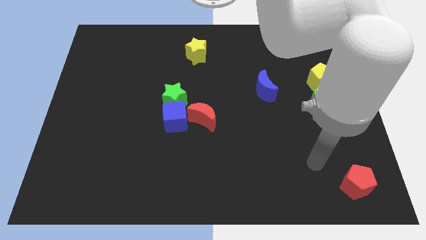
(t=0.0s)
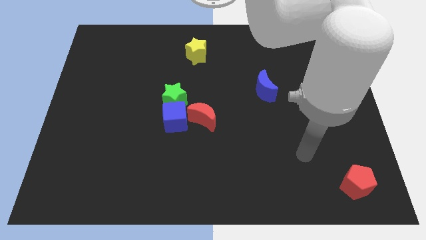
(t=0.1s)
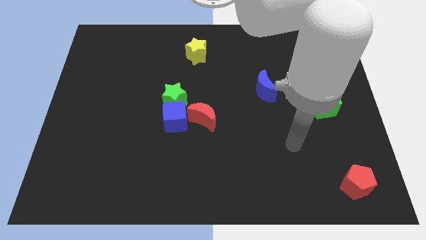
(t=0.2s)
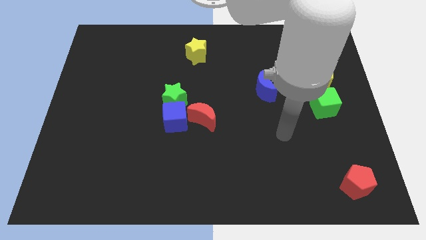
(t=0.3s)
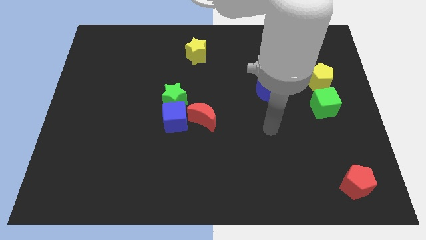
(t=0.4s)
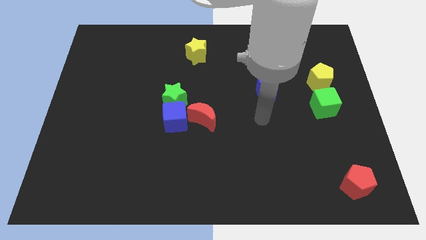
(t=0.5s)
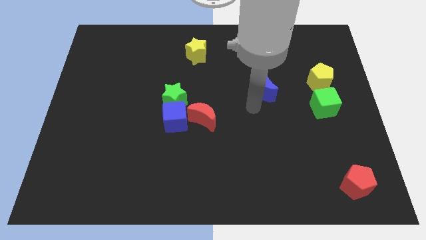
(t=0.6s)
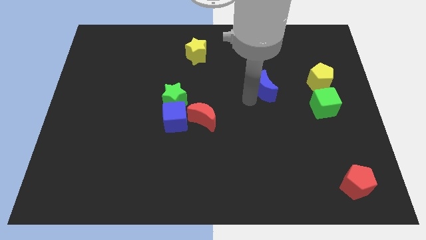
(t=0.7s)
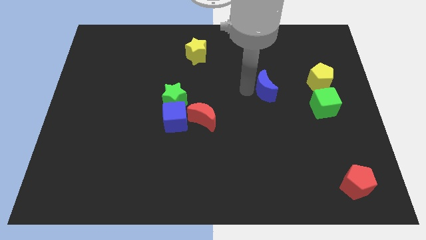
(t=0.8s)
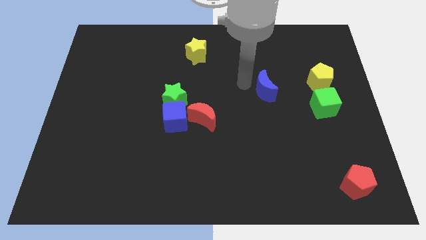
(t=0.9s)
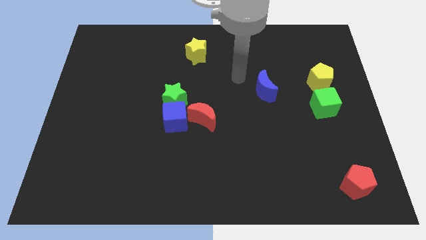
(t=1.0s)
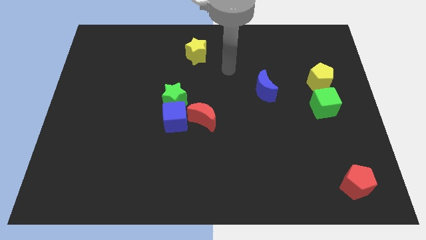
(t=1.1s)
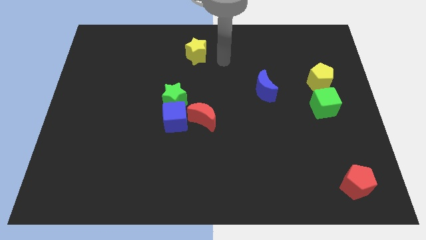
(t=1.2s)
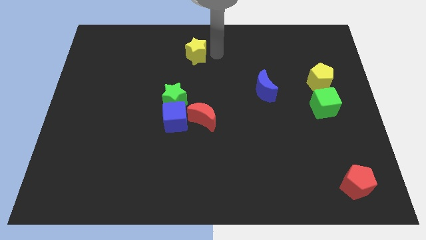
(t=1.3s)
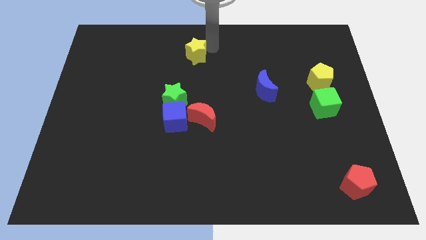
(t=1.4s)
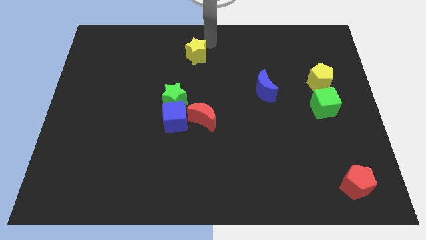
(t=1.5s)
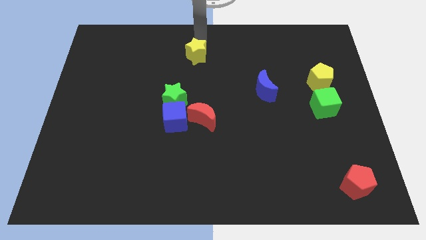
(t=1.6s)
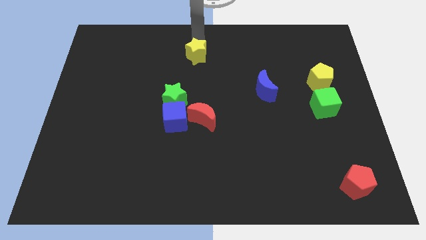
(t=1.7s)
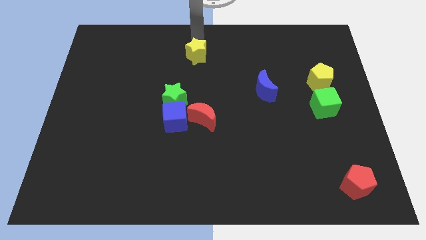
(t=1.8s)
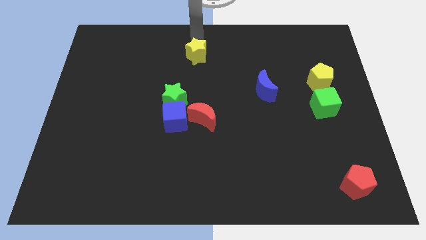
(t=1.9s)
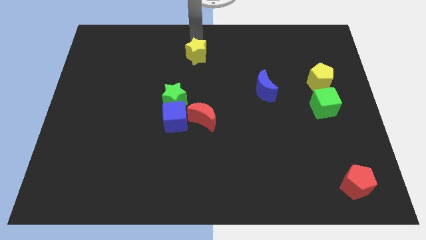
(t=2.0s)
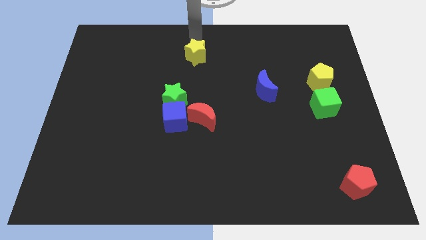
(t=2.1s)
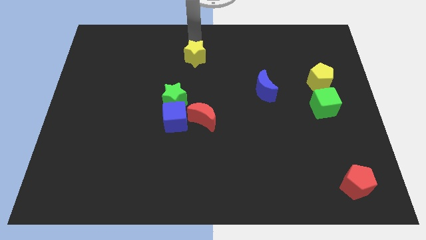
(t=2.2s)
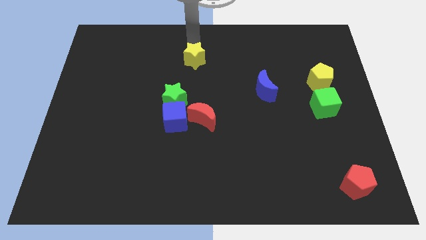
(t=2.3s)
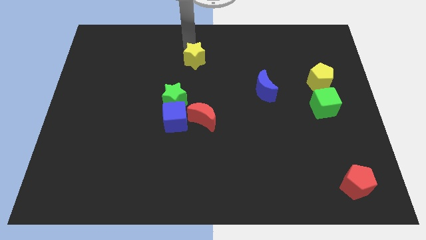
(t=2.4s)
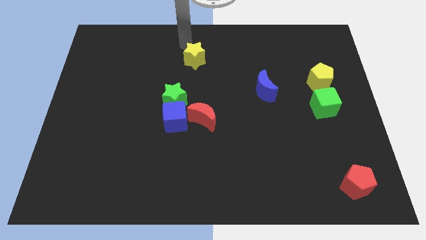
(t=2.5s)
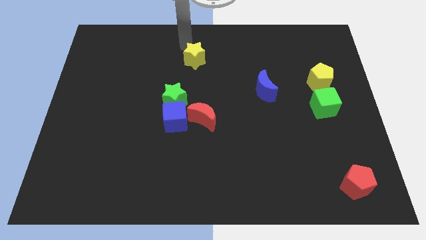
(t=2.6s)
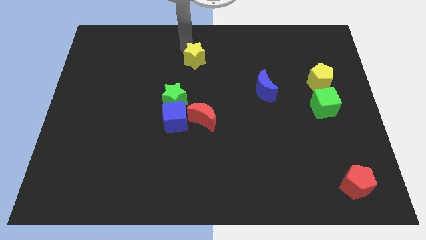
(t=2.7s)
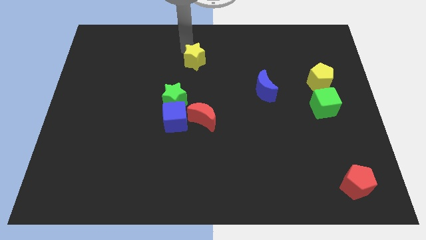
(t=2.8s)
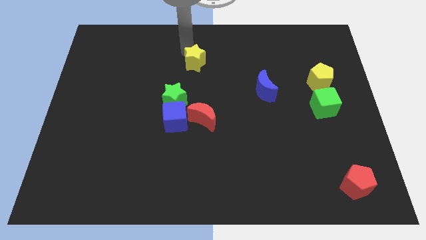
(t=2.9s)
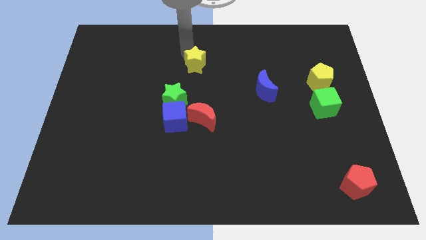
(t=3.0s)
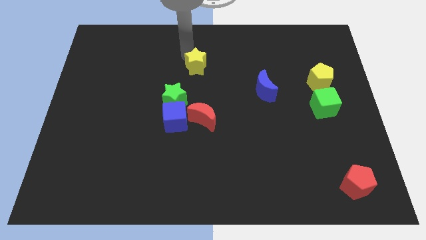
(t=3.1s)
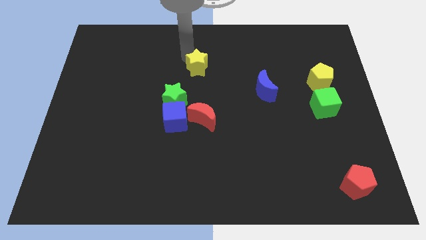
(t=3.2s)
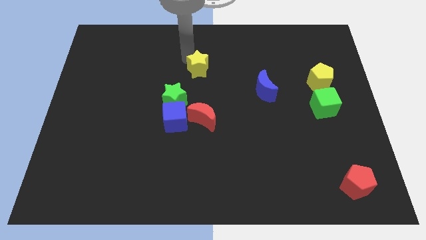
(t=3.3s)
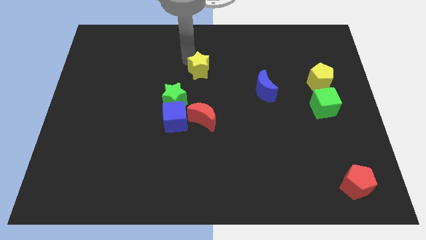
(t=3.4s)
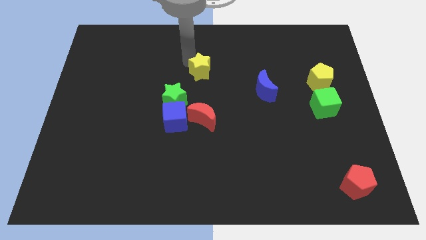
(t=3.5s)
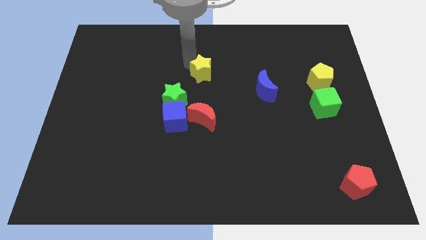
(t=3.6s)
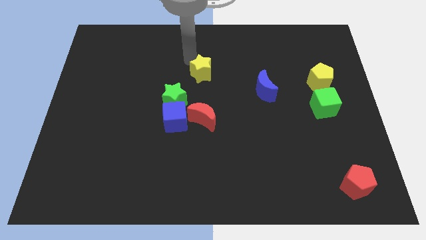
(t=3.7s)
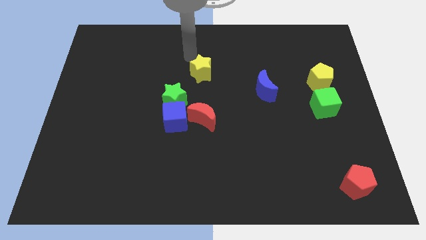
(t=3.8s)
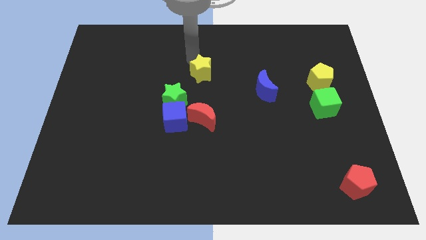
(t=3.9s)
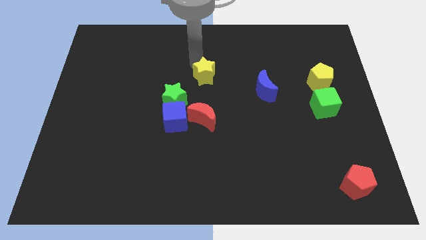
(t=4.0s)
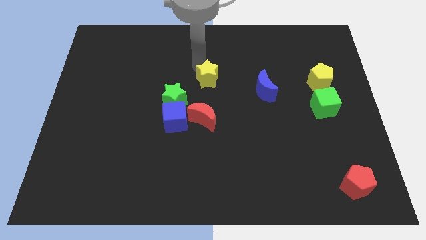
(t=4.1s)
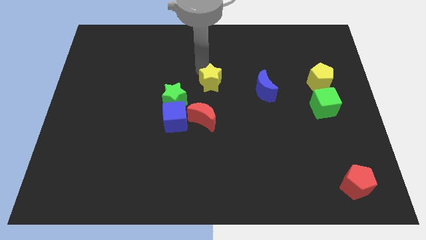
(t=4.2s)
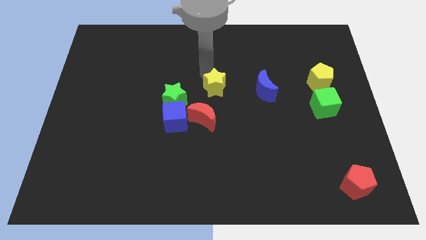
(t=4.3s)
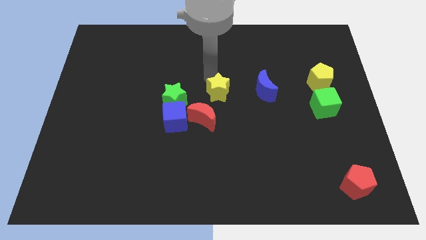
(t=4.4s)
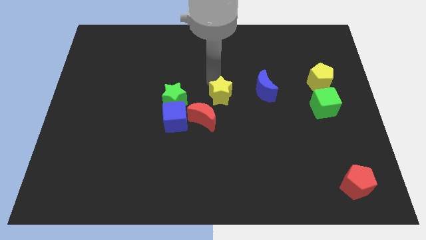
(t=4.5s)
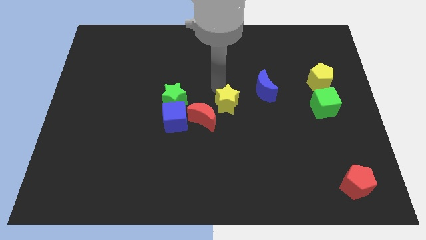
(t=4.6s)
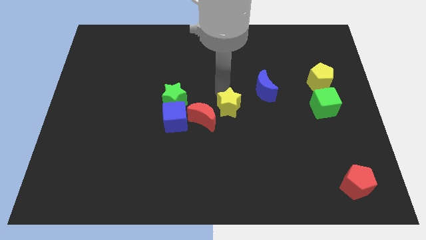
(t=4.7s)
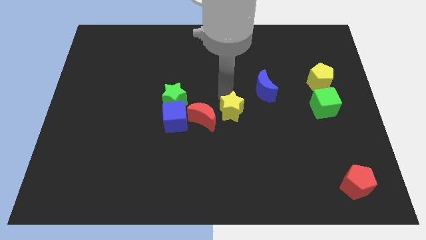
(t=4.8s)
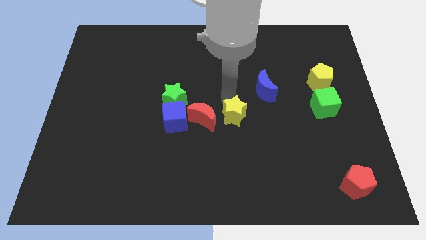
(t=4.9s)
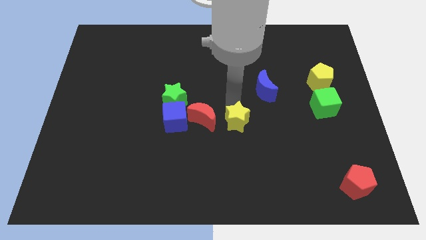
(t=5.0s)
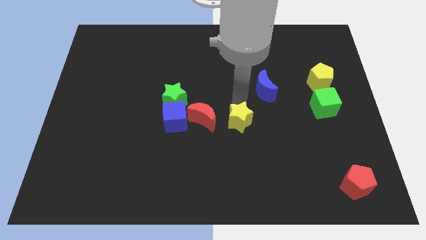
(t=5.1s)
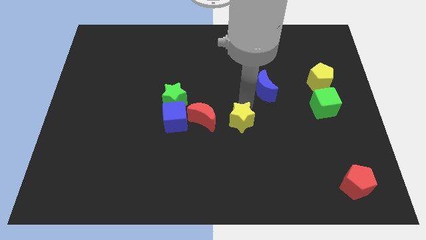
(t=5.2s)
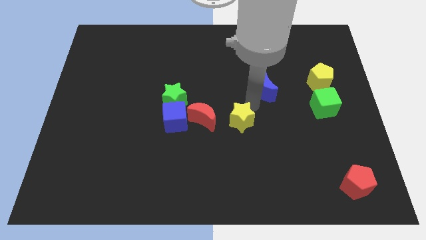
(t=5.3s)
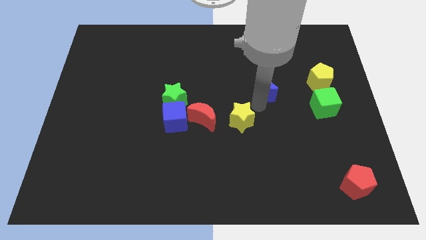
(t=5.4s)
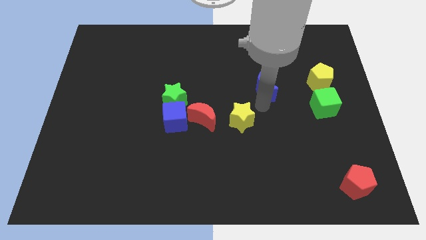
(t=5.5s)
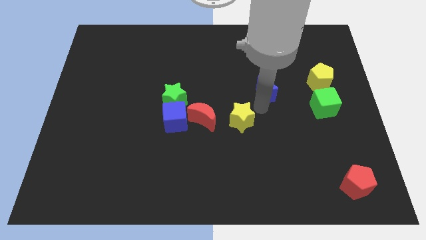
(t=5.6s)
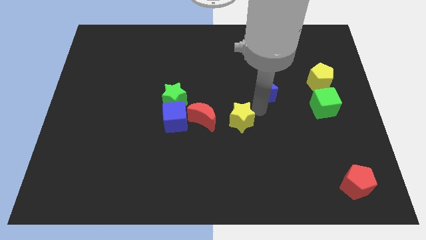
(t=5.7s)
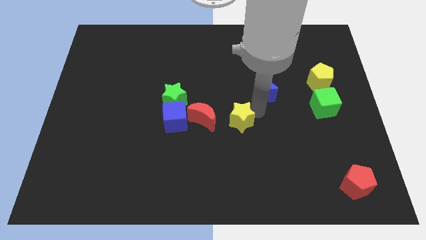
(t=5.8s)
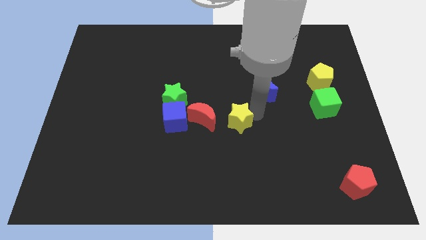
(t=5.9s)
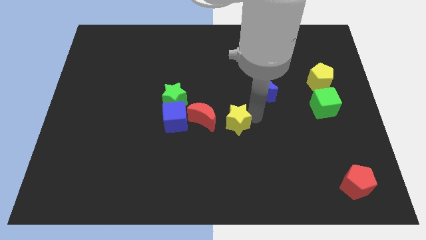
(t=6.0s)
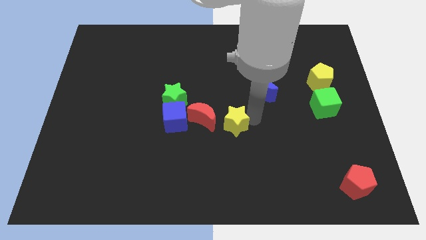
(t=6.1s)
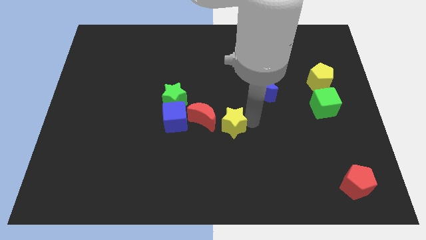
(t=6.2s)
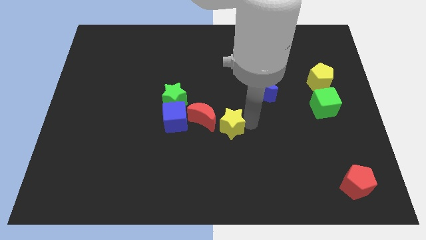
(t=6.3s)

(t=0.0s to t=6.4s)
move the yellow star downwards

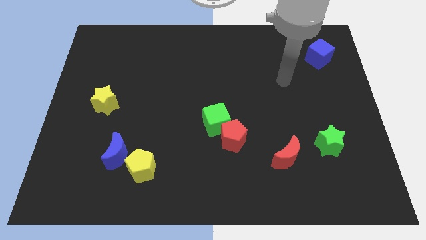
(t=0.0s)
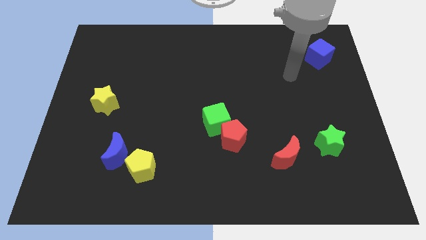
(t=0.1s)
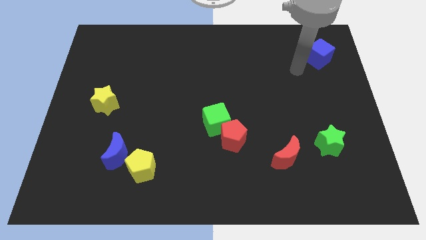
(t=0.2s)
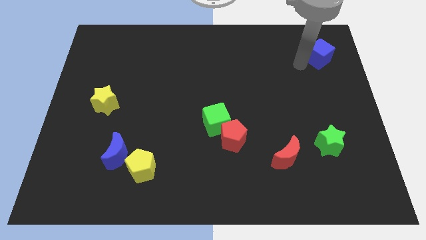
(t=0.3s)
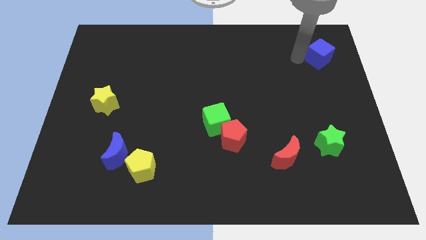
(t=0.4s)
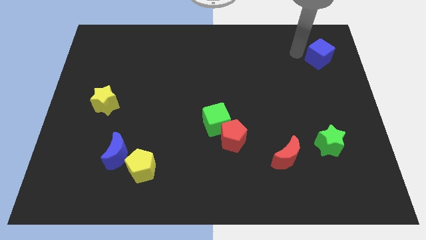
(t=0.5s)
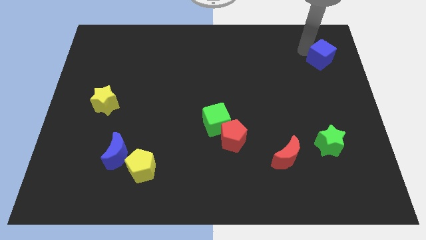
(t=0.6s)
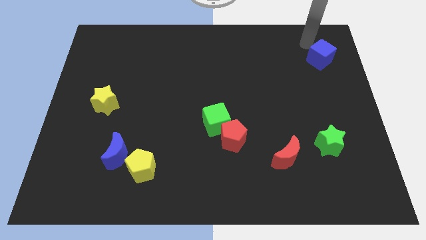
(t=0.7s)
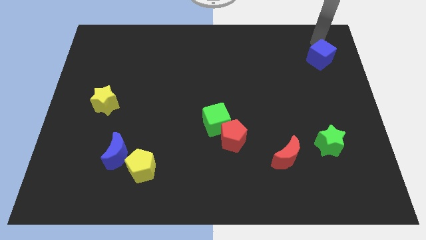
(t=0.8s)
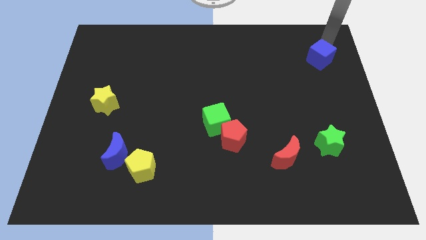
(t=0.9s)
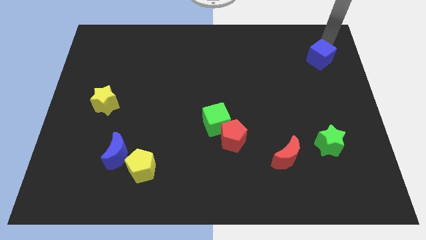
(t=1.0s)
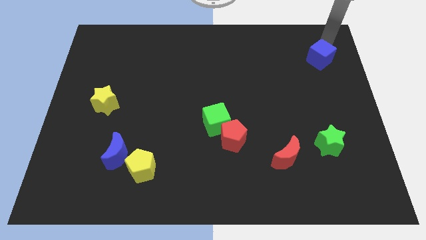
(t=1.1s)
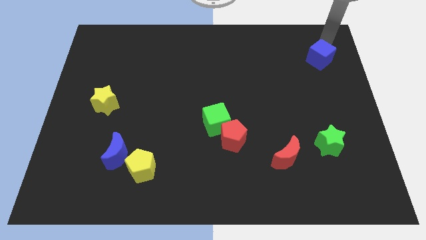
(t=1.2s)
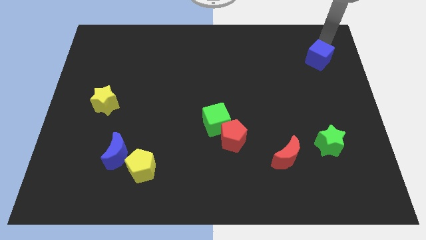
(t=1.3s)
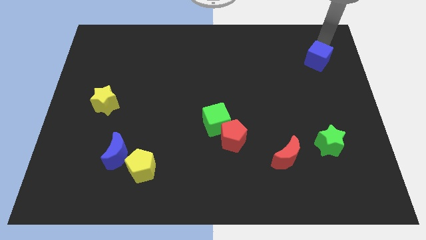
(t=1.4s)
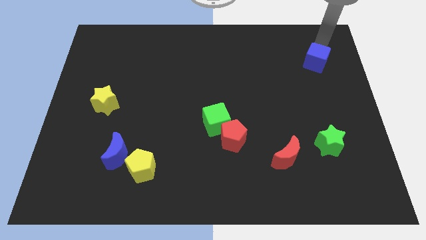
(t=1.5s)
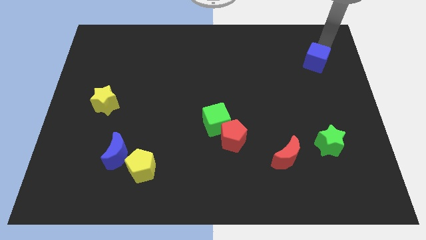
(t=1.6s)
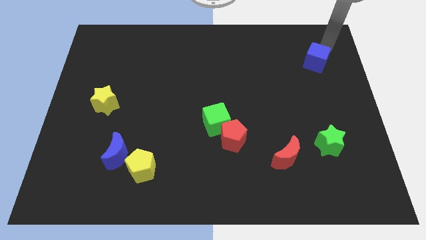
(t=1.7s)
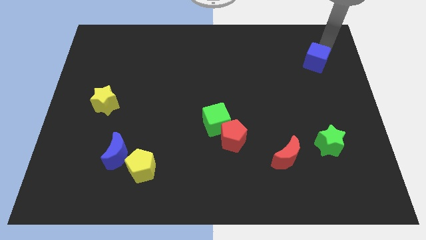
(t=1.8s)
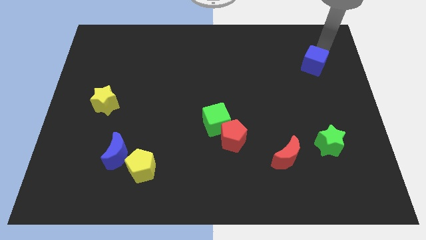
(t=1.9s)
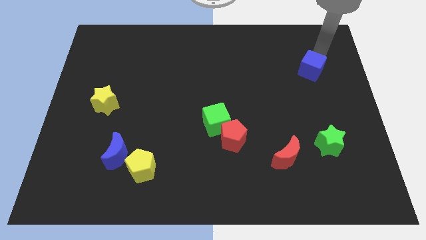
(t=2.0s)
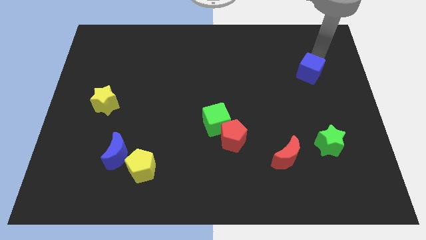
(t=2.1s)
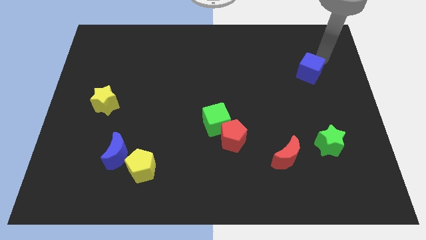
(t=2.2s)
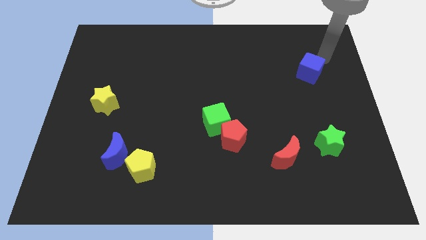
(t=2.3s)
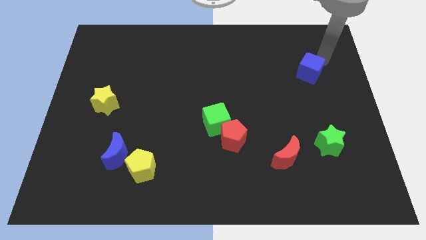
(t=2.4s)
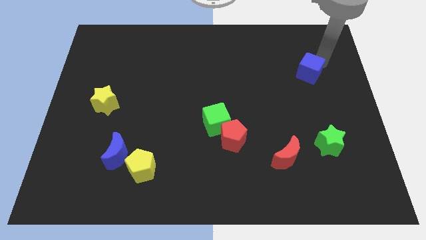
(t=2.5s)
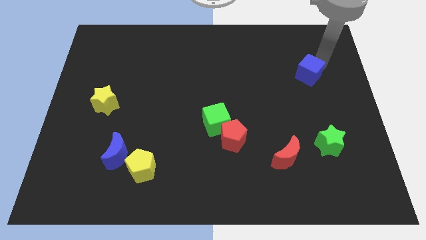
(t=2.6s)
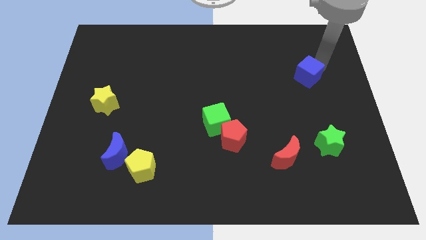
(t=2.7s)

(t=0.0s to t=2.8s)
move the blue cube a bit down and left diagonally
